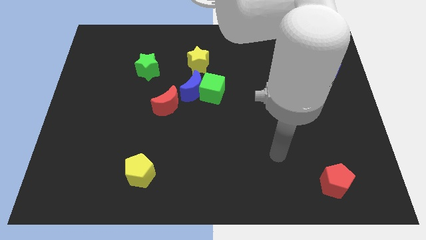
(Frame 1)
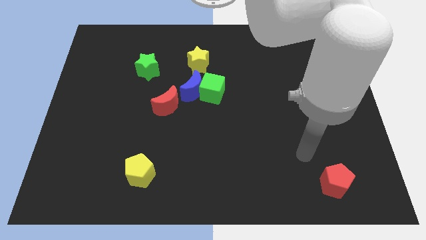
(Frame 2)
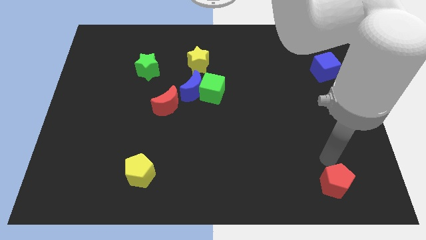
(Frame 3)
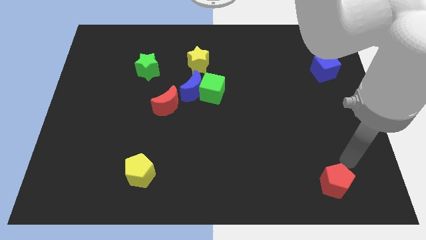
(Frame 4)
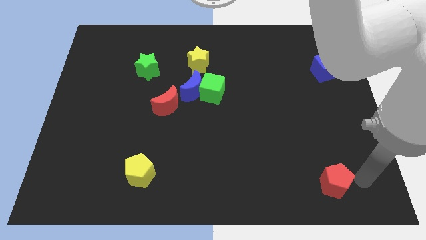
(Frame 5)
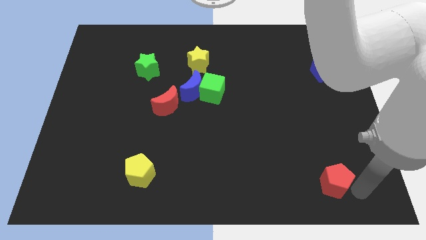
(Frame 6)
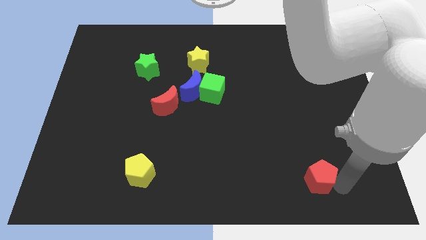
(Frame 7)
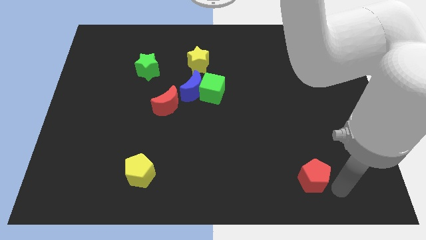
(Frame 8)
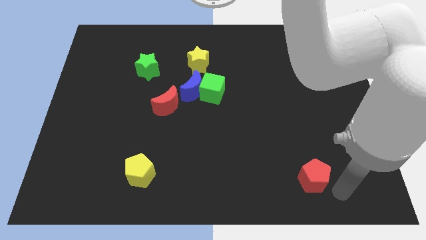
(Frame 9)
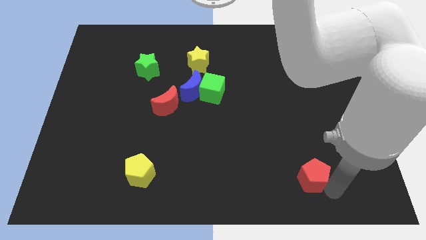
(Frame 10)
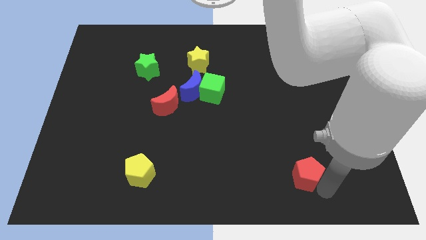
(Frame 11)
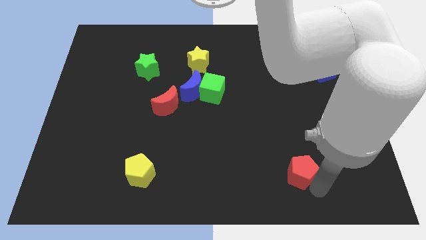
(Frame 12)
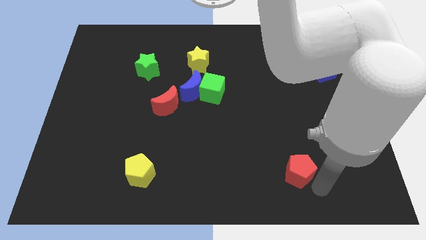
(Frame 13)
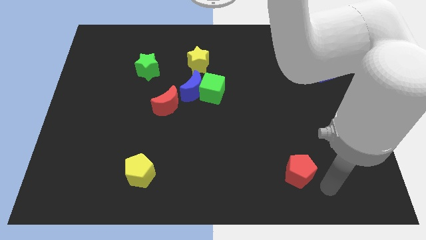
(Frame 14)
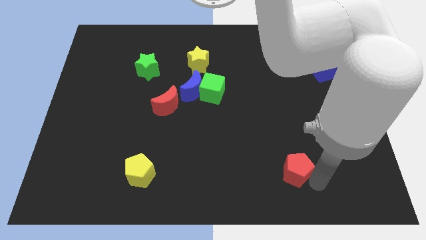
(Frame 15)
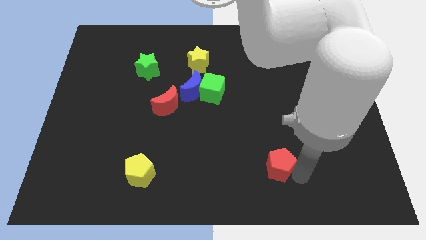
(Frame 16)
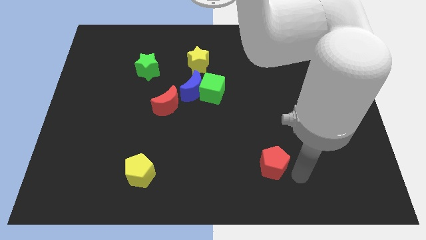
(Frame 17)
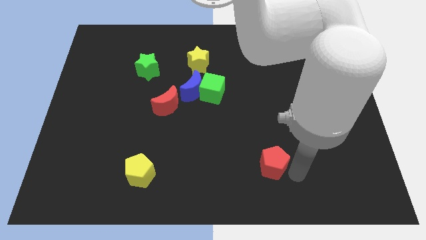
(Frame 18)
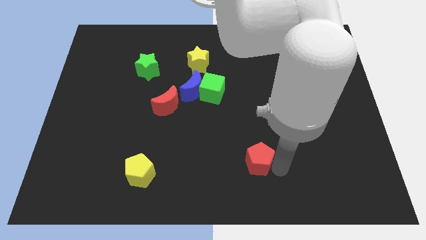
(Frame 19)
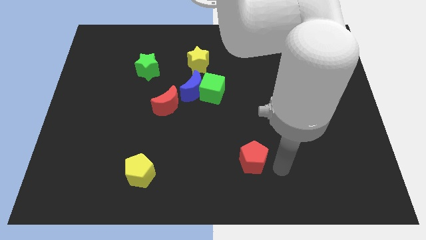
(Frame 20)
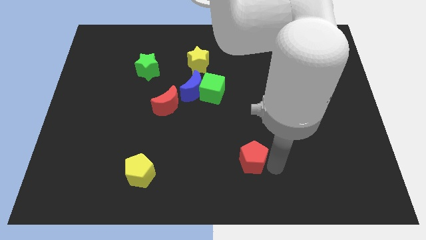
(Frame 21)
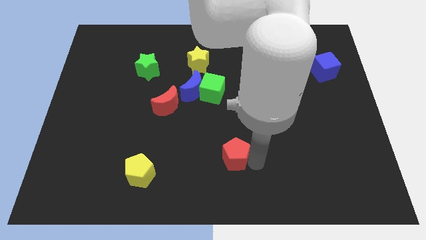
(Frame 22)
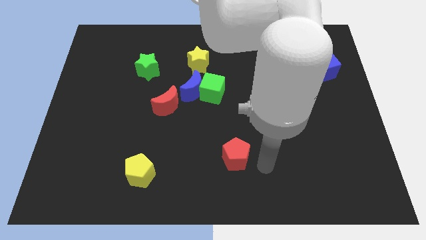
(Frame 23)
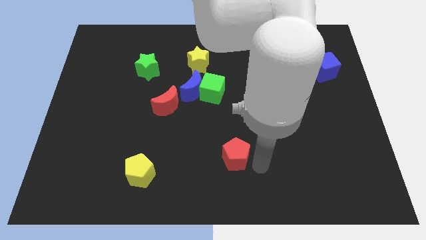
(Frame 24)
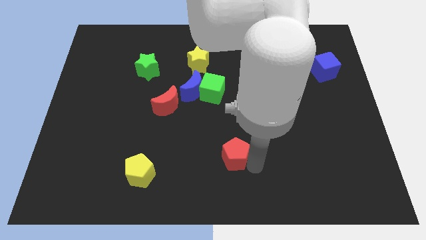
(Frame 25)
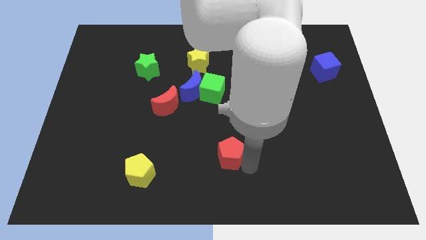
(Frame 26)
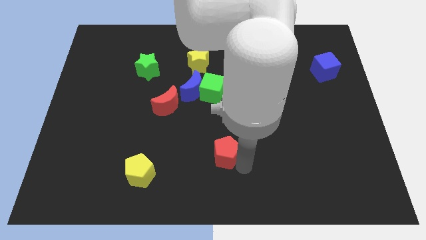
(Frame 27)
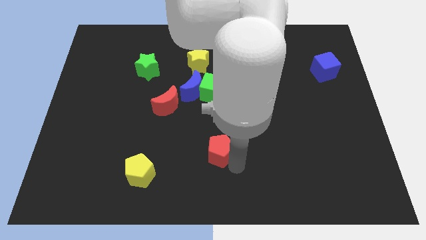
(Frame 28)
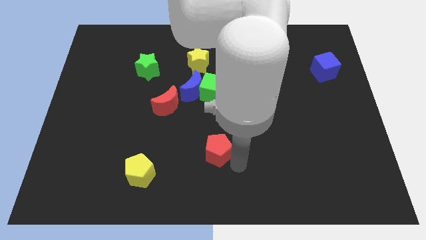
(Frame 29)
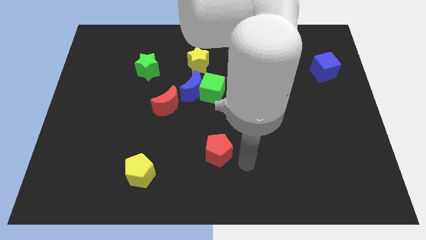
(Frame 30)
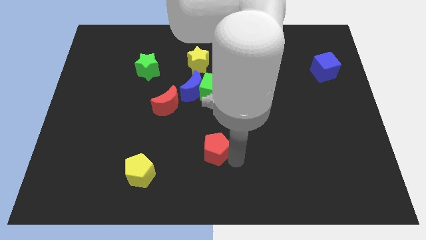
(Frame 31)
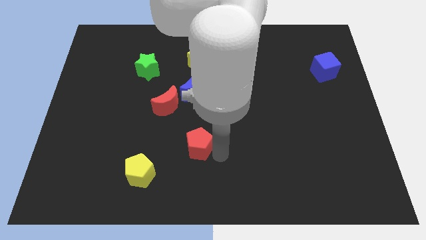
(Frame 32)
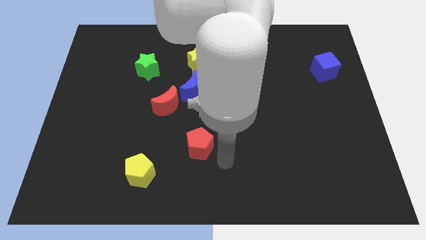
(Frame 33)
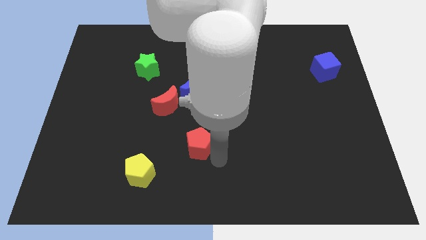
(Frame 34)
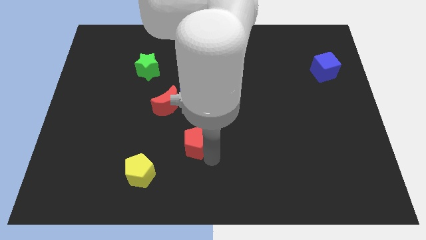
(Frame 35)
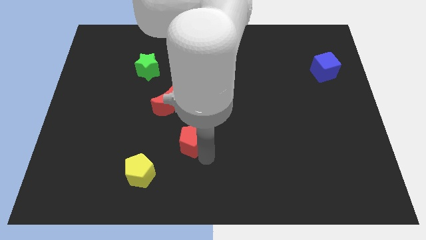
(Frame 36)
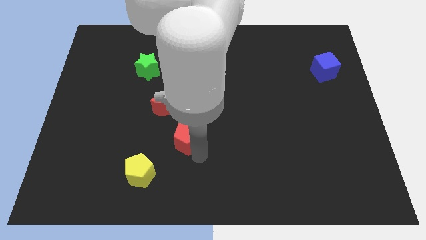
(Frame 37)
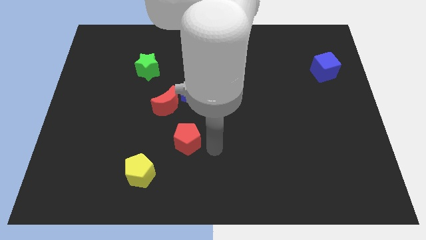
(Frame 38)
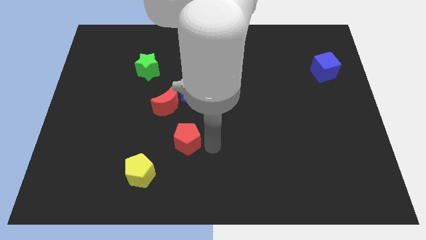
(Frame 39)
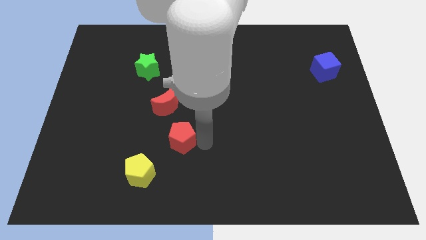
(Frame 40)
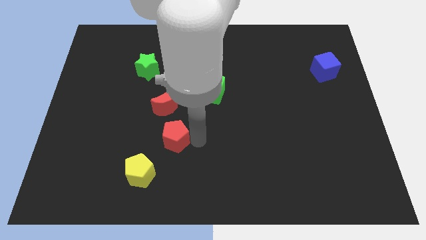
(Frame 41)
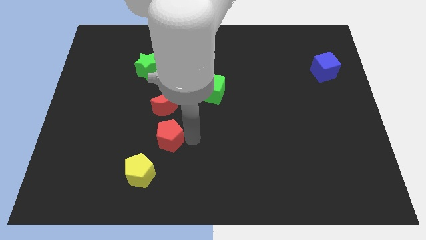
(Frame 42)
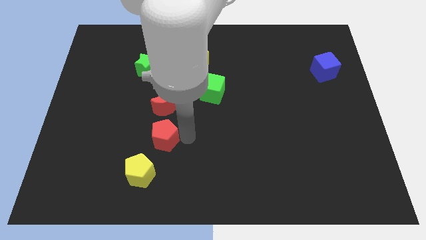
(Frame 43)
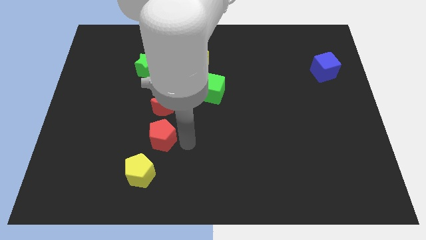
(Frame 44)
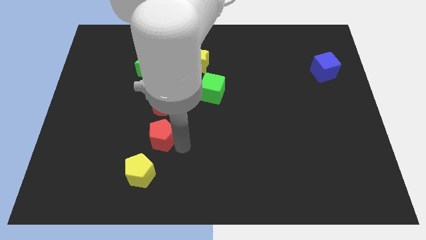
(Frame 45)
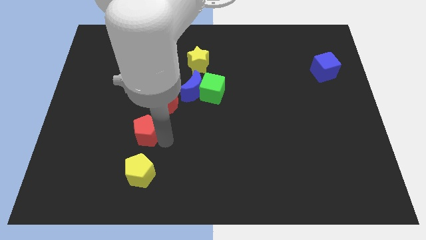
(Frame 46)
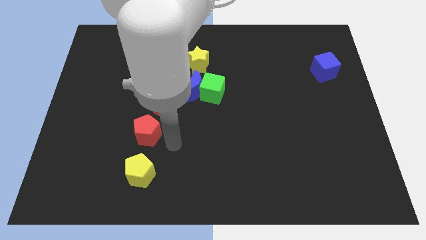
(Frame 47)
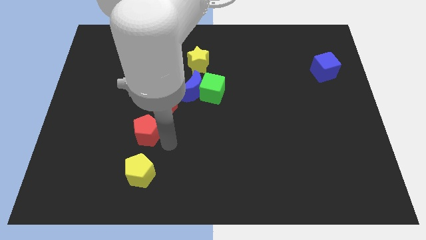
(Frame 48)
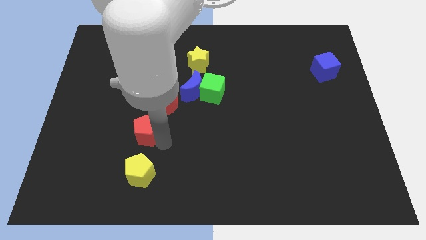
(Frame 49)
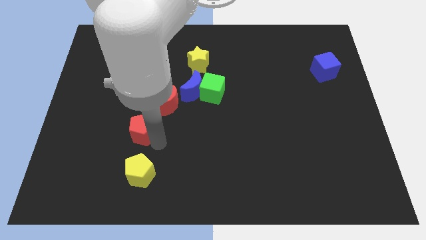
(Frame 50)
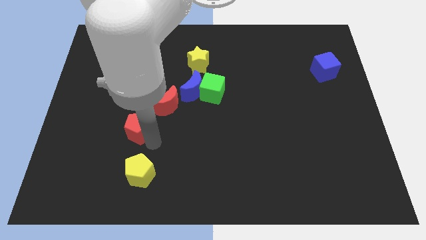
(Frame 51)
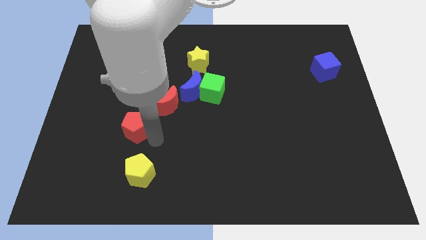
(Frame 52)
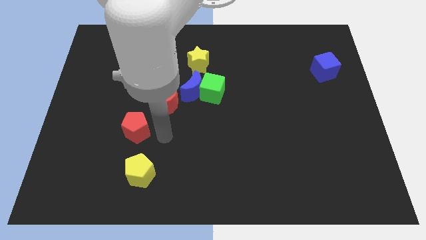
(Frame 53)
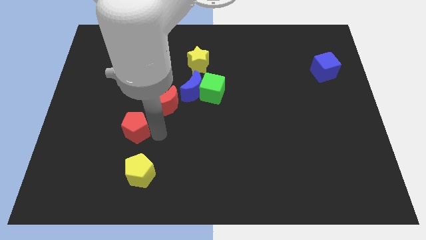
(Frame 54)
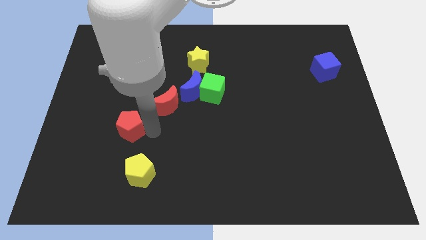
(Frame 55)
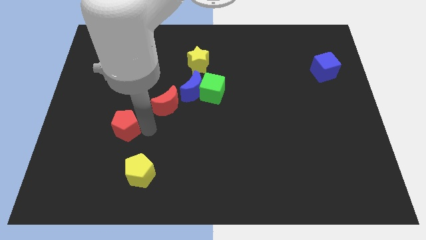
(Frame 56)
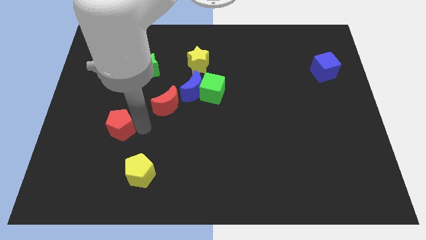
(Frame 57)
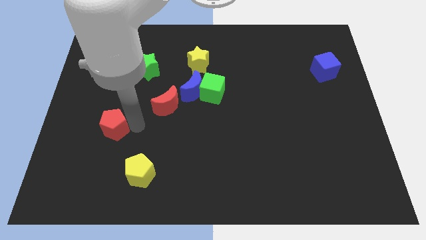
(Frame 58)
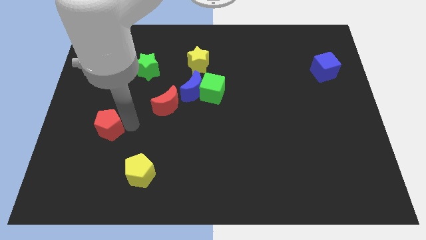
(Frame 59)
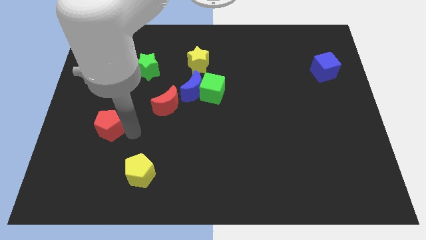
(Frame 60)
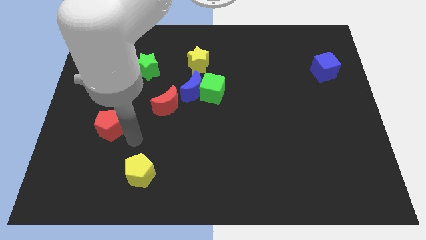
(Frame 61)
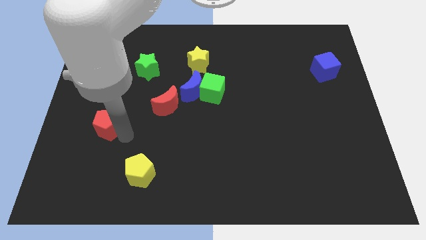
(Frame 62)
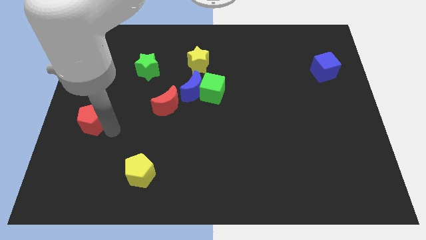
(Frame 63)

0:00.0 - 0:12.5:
put the red pentagon to the center left
